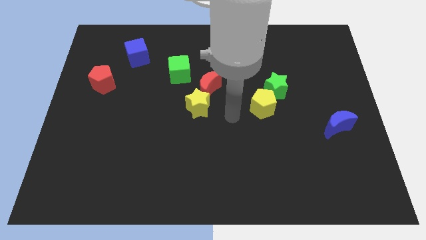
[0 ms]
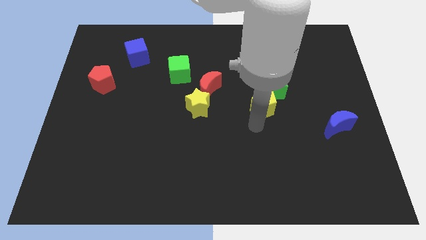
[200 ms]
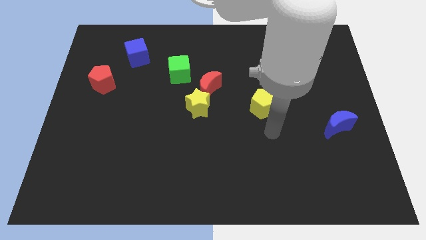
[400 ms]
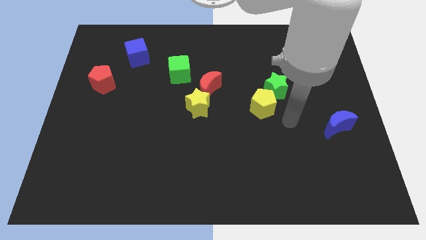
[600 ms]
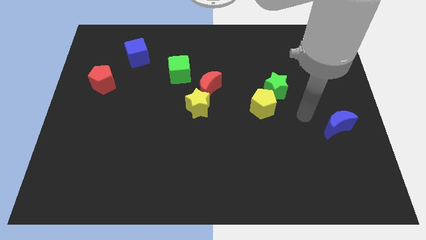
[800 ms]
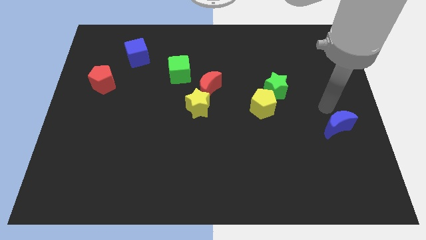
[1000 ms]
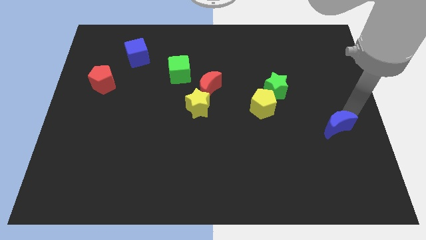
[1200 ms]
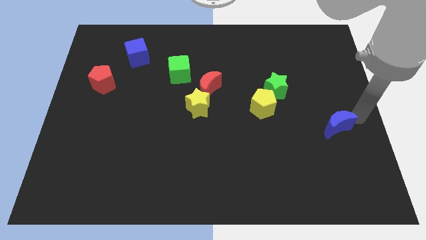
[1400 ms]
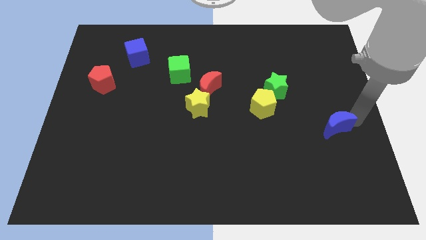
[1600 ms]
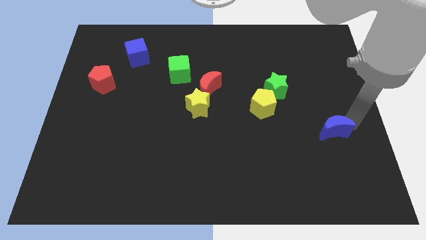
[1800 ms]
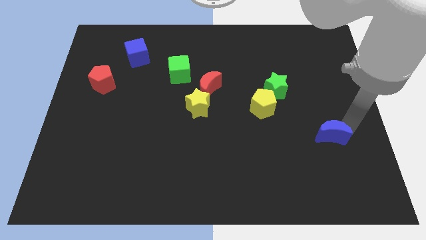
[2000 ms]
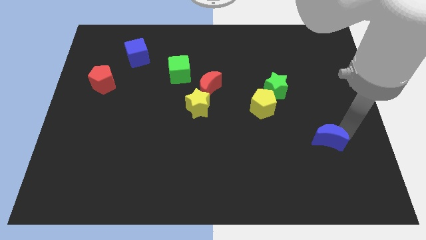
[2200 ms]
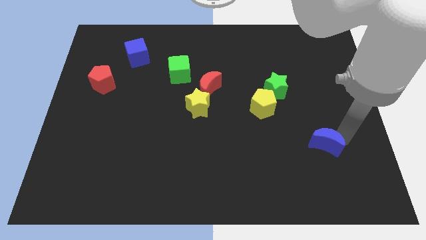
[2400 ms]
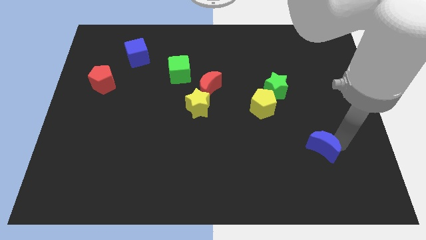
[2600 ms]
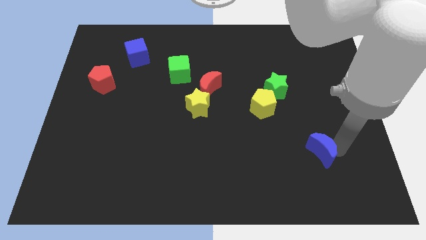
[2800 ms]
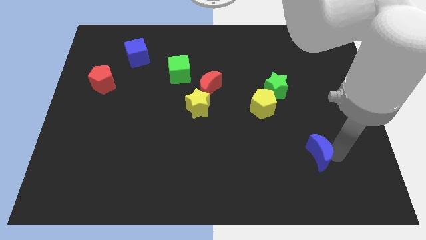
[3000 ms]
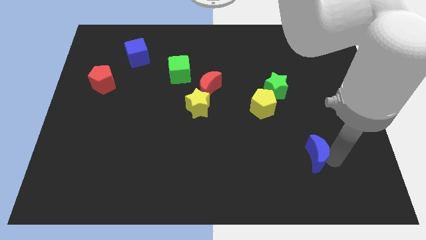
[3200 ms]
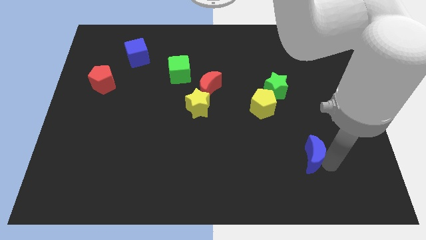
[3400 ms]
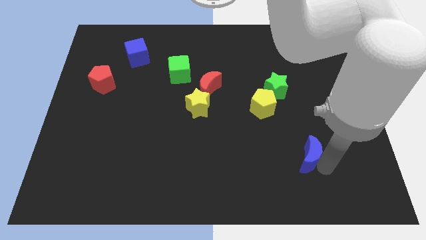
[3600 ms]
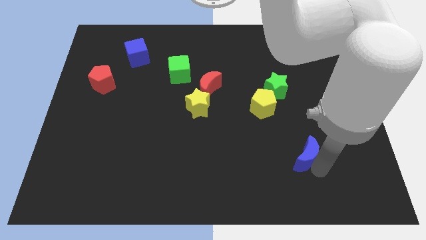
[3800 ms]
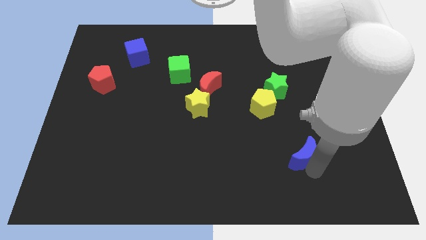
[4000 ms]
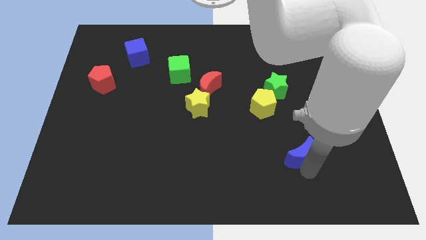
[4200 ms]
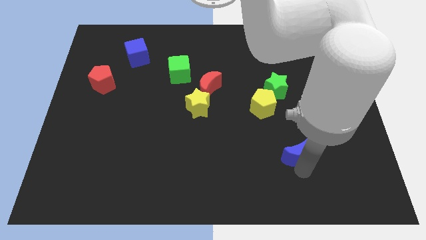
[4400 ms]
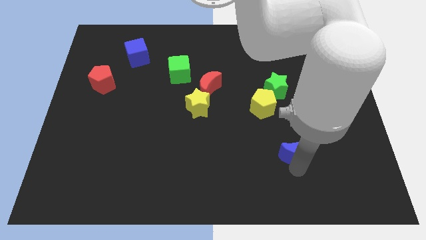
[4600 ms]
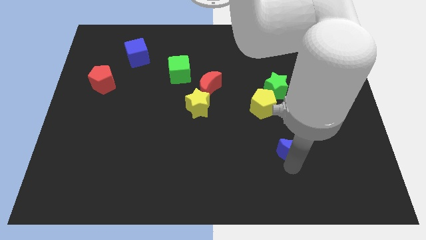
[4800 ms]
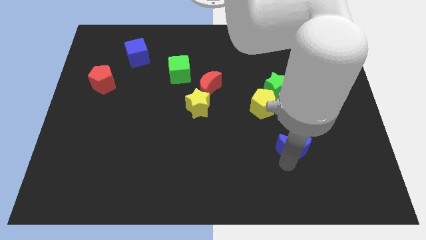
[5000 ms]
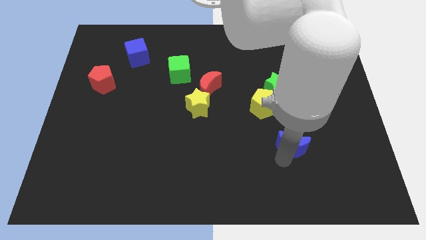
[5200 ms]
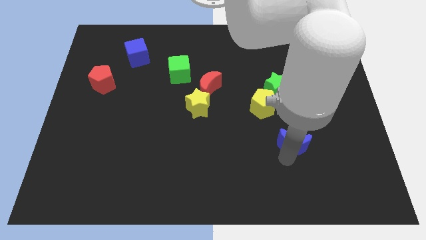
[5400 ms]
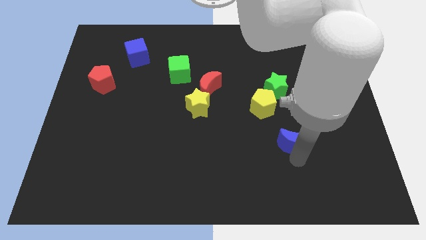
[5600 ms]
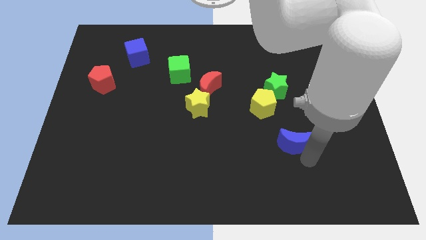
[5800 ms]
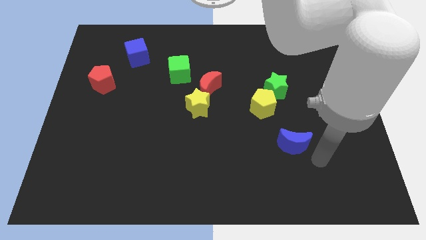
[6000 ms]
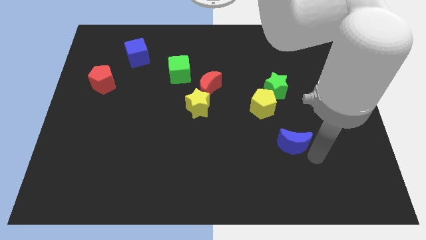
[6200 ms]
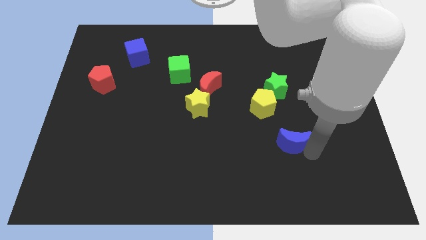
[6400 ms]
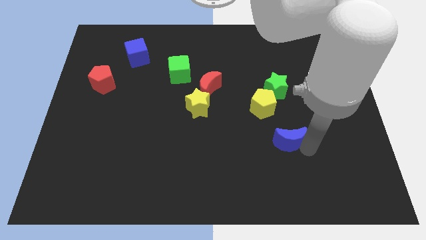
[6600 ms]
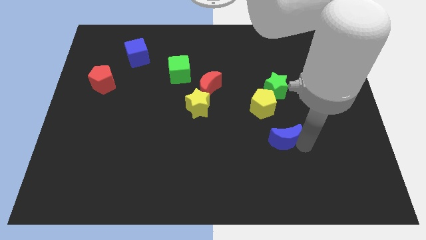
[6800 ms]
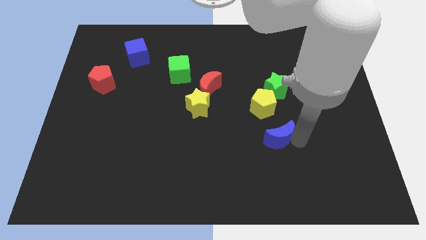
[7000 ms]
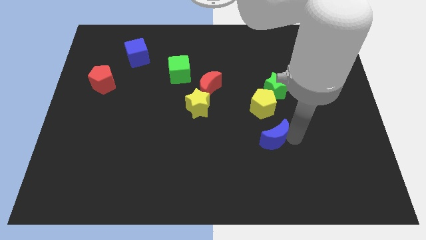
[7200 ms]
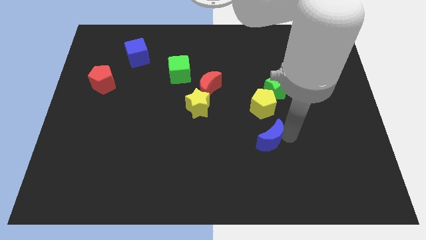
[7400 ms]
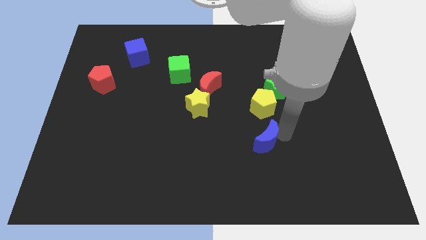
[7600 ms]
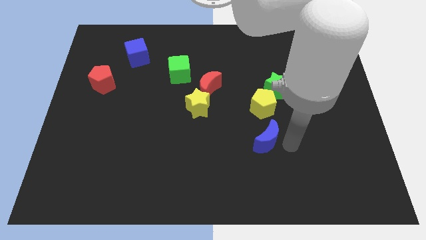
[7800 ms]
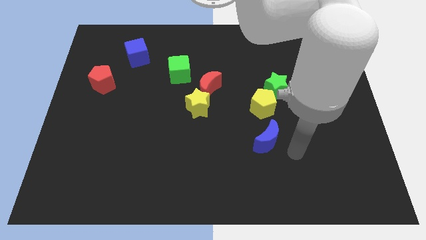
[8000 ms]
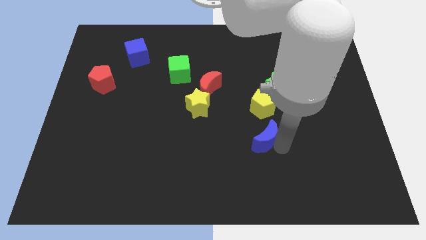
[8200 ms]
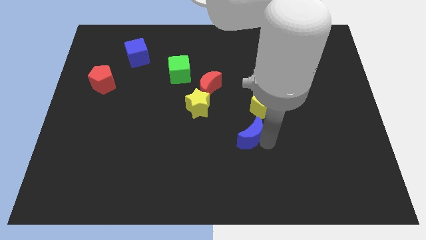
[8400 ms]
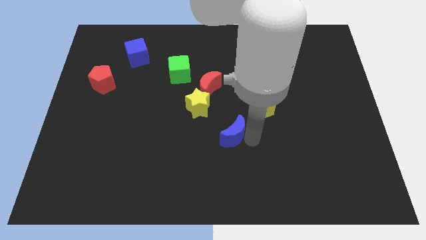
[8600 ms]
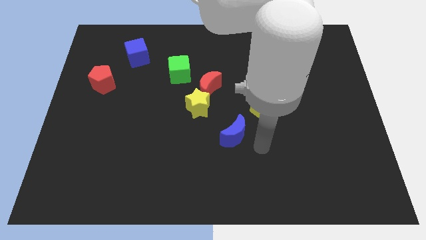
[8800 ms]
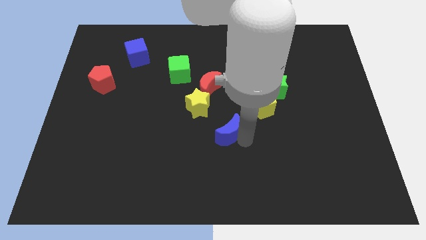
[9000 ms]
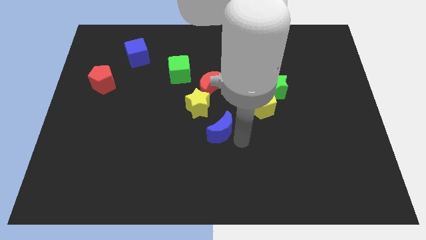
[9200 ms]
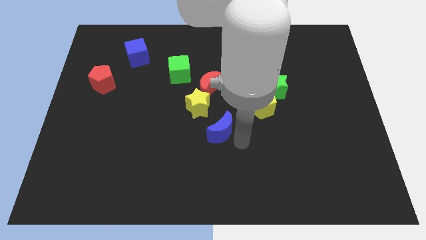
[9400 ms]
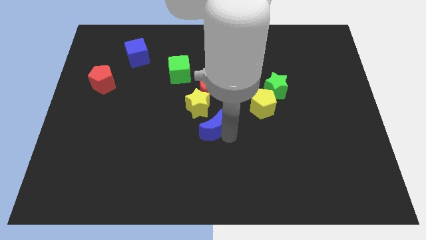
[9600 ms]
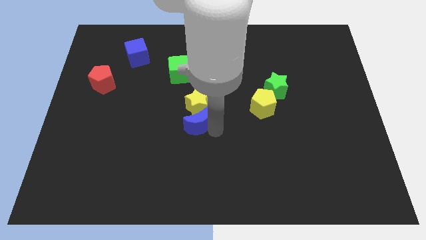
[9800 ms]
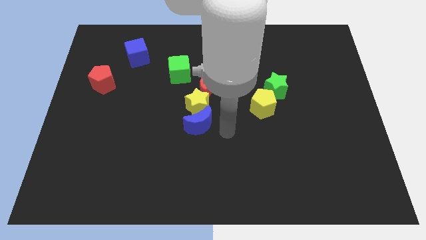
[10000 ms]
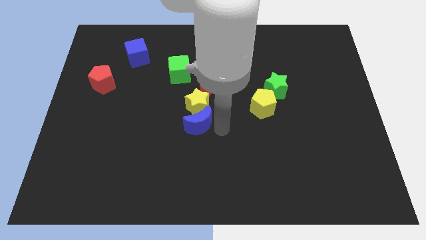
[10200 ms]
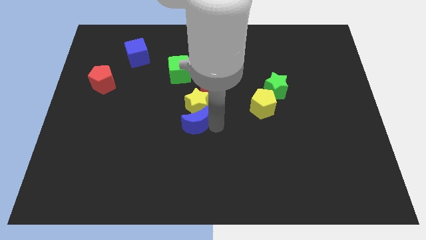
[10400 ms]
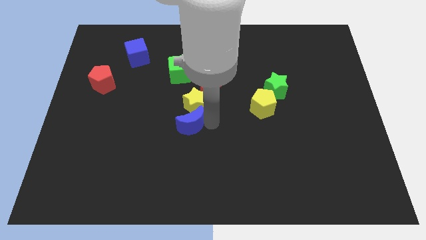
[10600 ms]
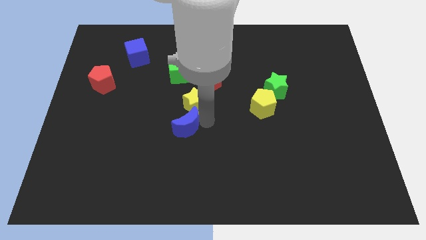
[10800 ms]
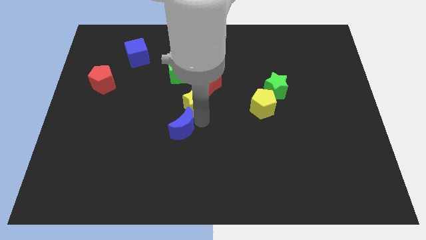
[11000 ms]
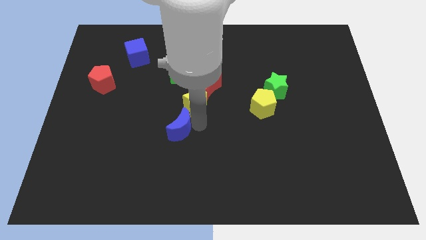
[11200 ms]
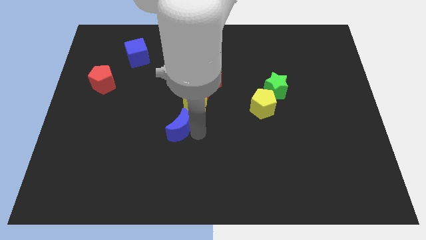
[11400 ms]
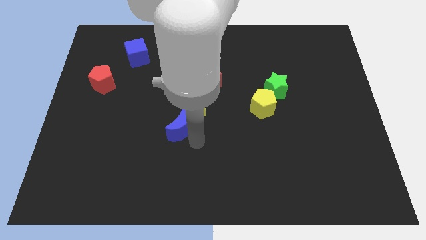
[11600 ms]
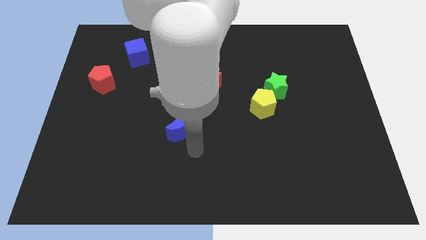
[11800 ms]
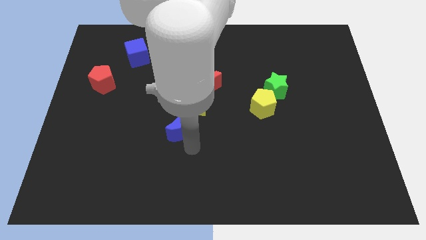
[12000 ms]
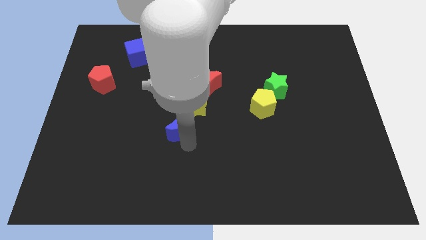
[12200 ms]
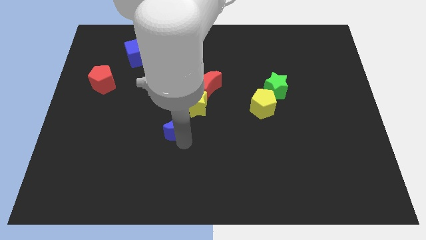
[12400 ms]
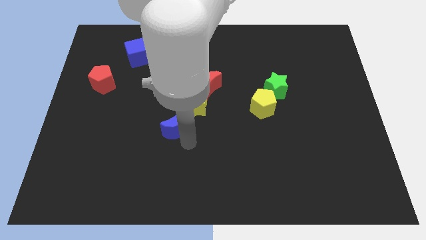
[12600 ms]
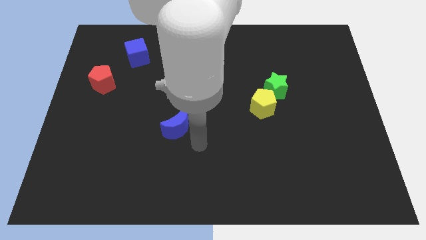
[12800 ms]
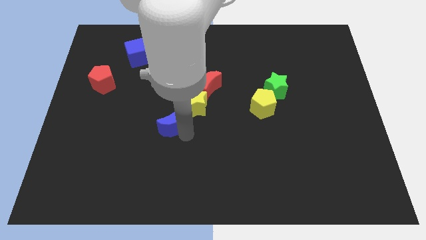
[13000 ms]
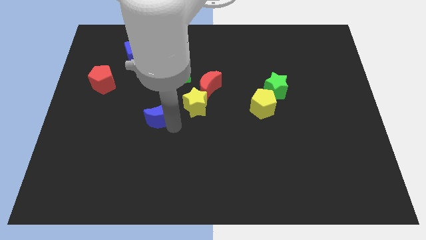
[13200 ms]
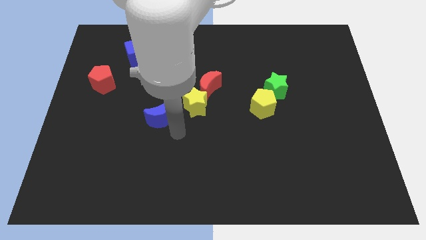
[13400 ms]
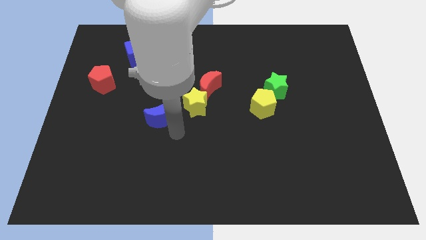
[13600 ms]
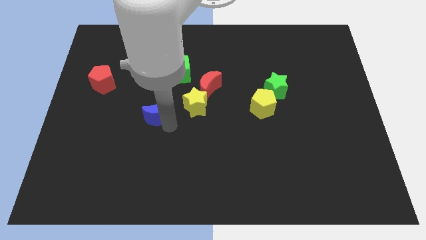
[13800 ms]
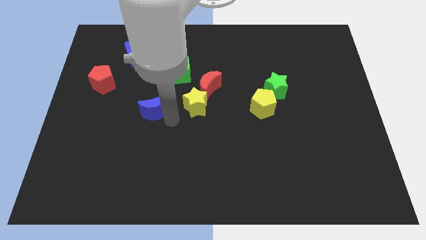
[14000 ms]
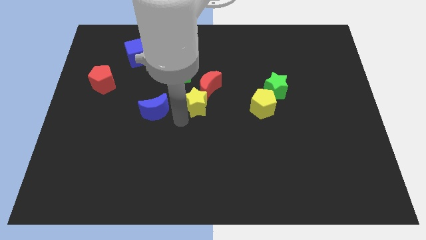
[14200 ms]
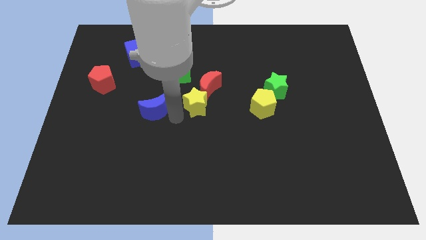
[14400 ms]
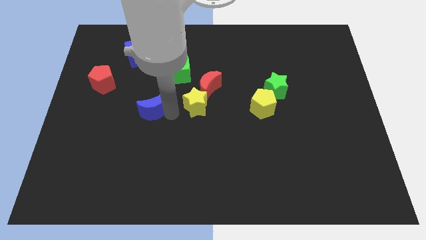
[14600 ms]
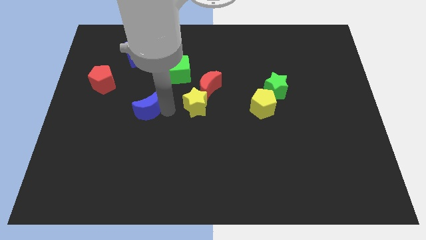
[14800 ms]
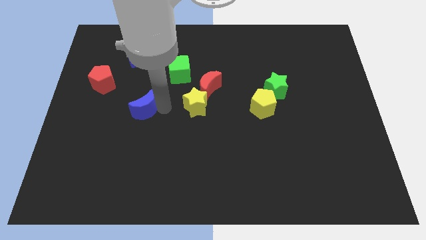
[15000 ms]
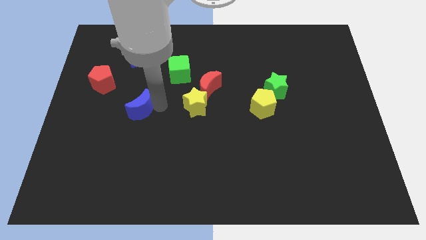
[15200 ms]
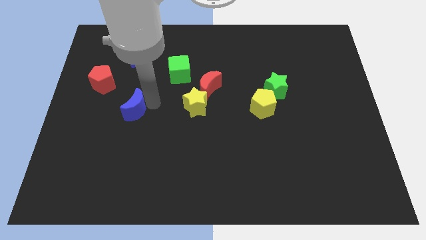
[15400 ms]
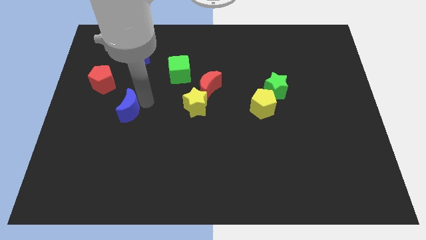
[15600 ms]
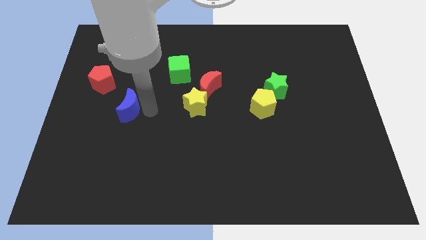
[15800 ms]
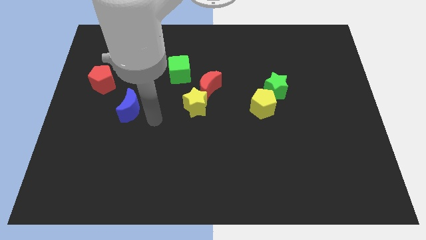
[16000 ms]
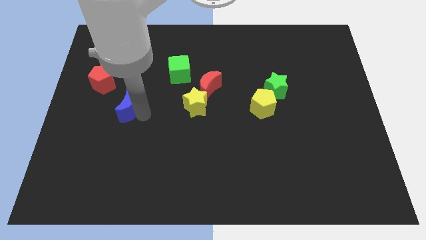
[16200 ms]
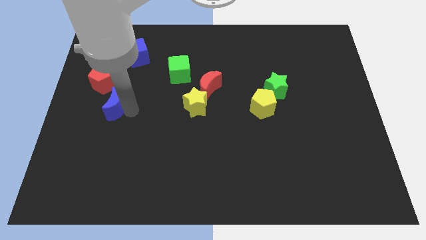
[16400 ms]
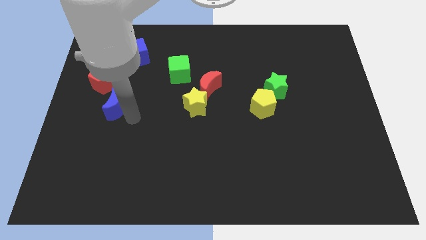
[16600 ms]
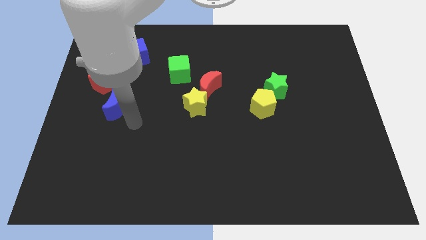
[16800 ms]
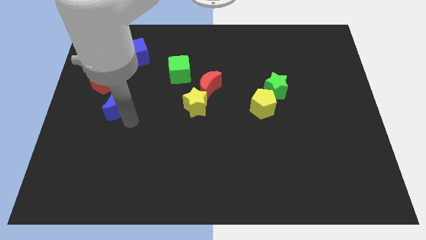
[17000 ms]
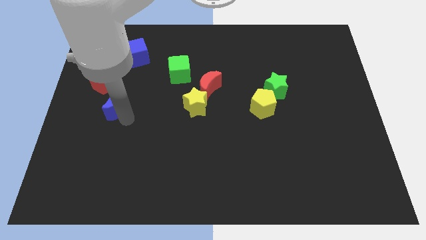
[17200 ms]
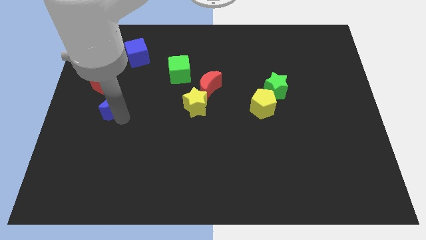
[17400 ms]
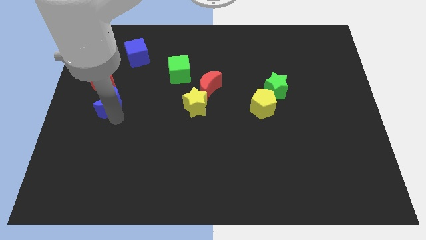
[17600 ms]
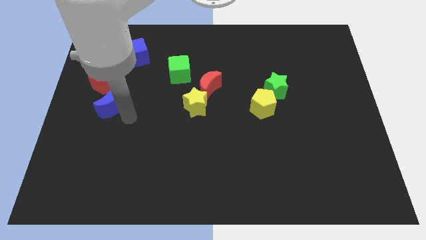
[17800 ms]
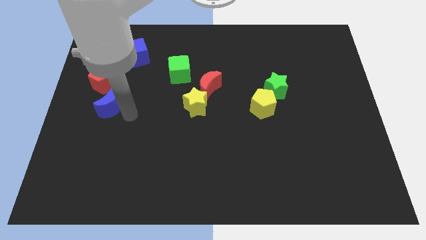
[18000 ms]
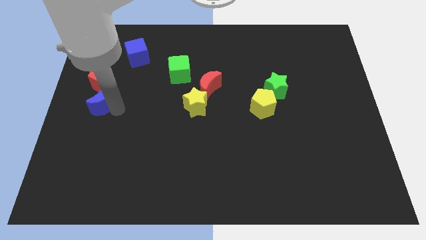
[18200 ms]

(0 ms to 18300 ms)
slide the blue moon to the left side of the board
